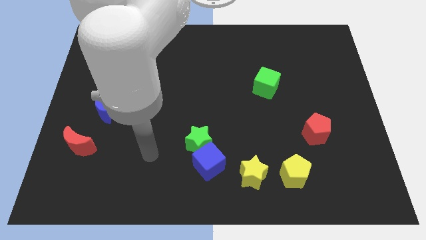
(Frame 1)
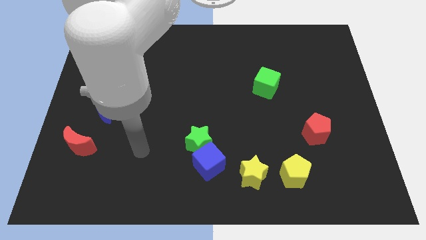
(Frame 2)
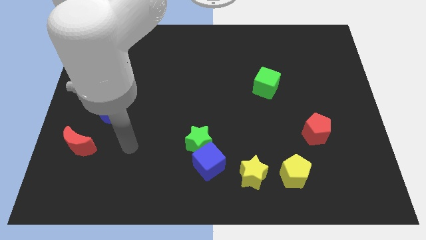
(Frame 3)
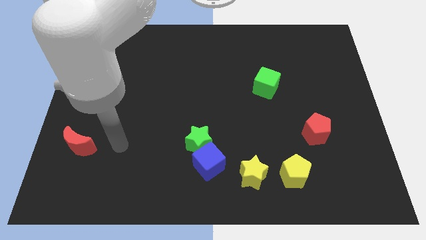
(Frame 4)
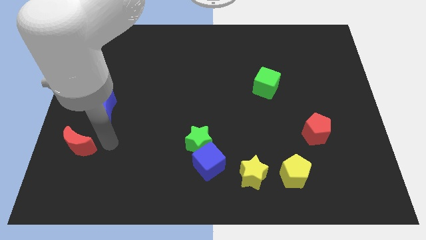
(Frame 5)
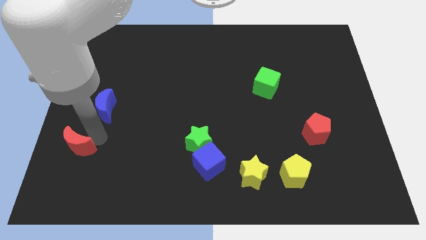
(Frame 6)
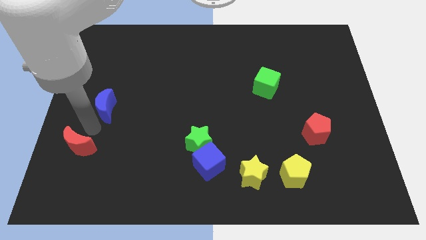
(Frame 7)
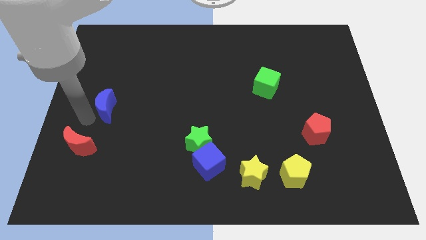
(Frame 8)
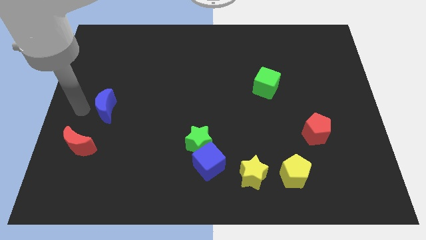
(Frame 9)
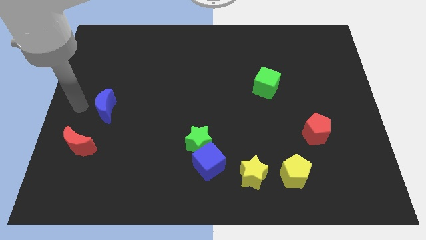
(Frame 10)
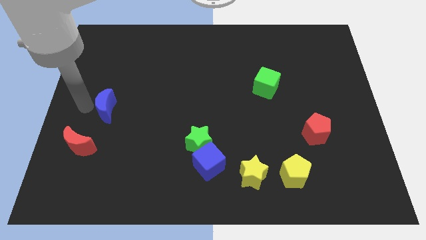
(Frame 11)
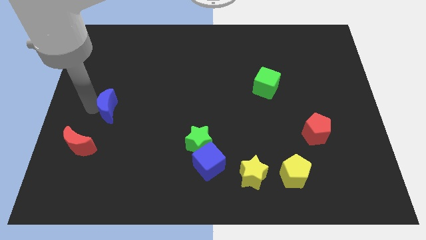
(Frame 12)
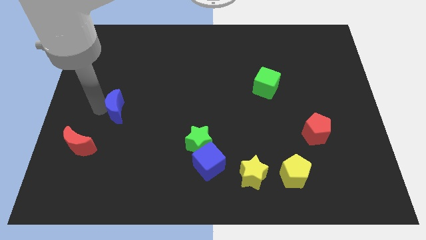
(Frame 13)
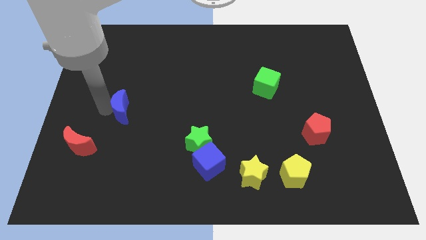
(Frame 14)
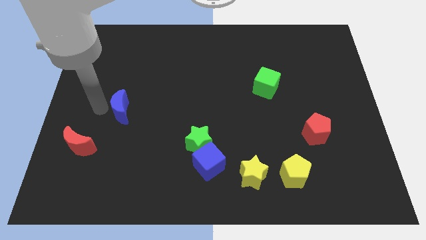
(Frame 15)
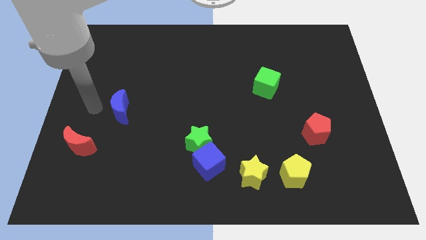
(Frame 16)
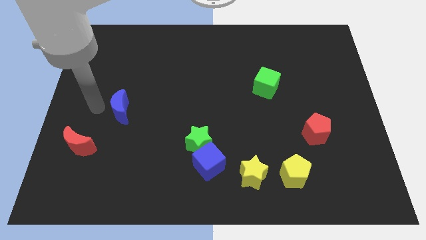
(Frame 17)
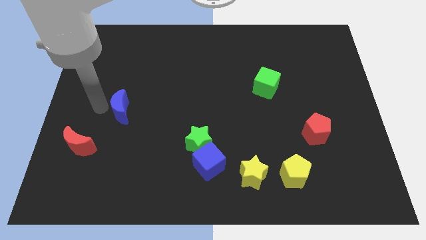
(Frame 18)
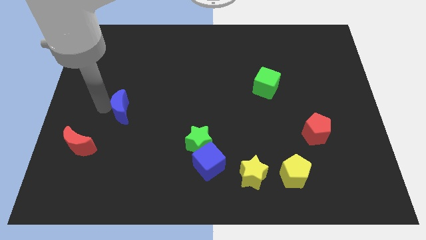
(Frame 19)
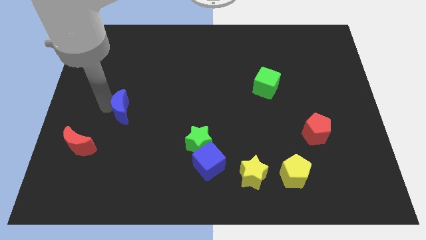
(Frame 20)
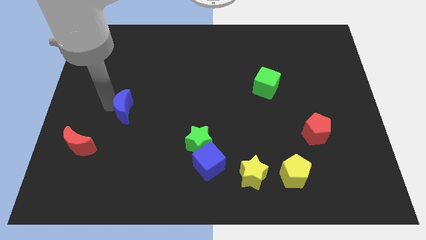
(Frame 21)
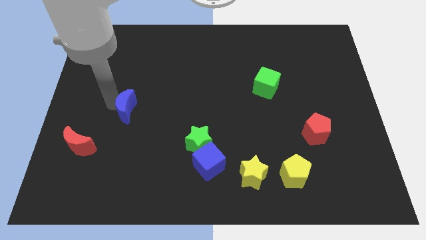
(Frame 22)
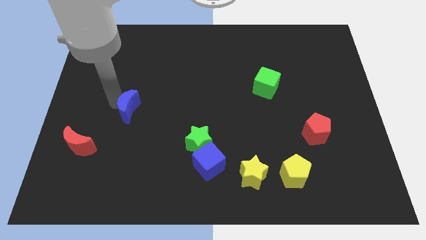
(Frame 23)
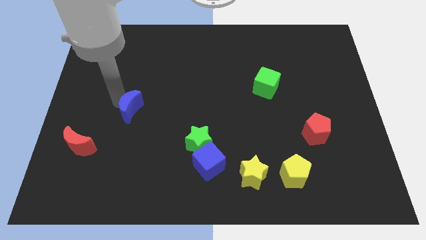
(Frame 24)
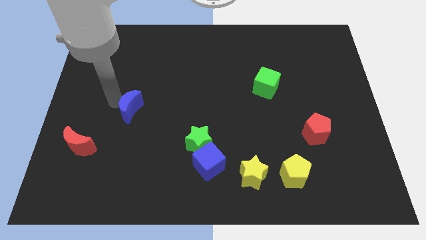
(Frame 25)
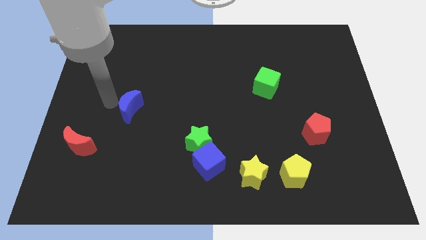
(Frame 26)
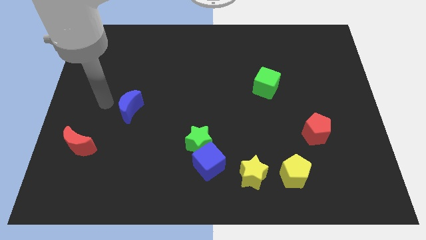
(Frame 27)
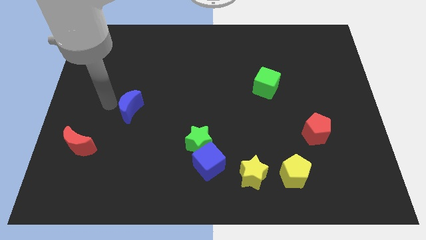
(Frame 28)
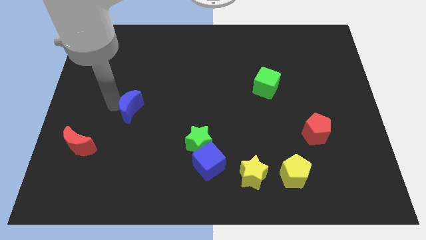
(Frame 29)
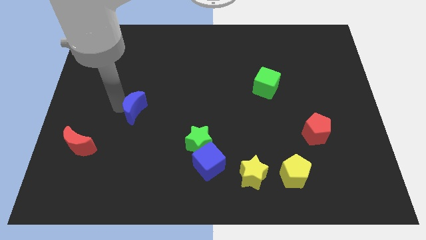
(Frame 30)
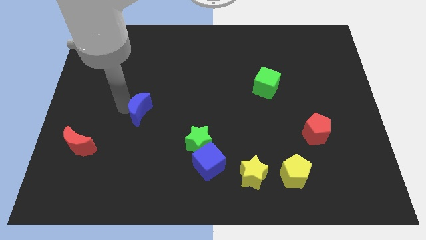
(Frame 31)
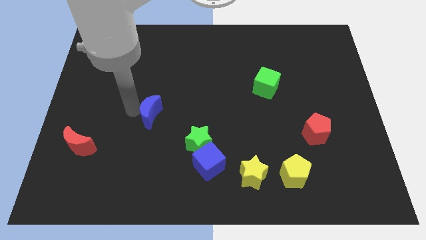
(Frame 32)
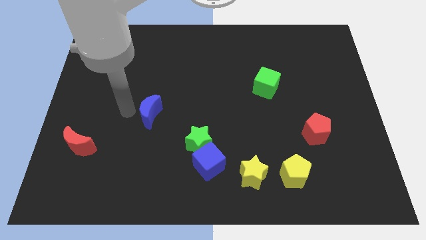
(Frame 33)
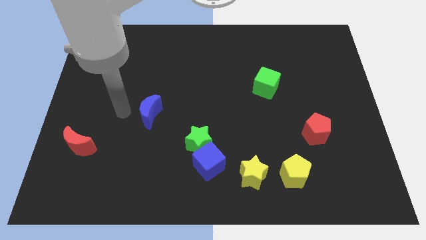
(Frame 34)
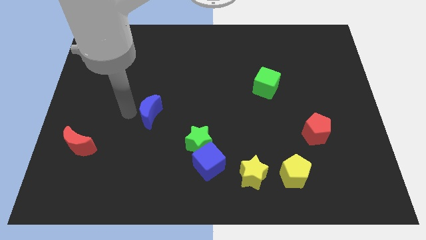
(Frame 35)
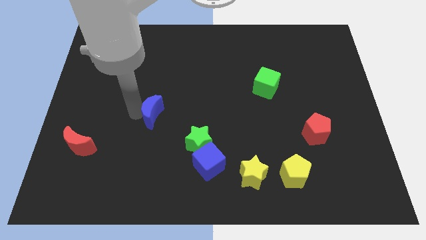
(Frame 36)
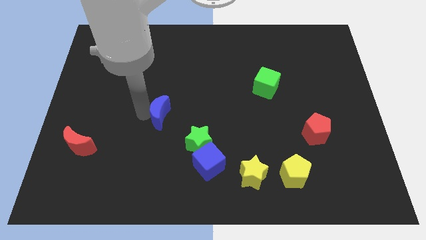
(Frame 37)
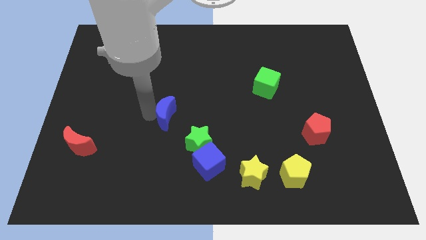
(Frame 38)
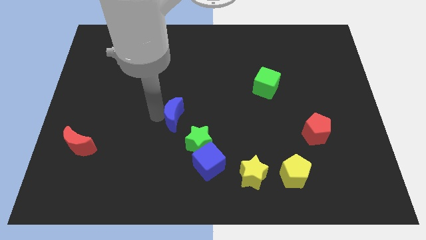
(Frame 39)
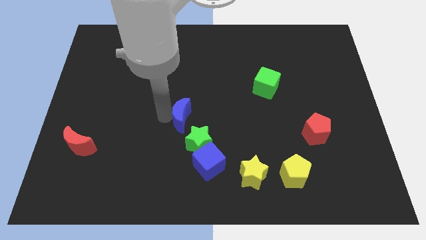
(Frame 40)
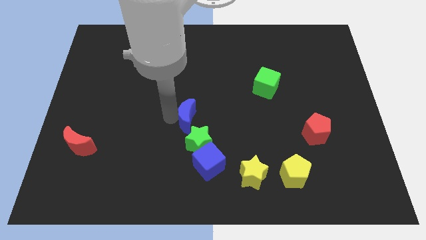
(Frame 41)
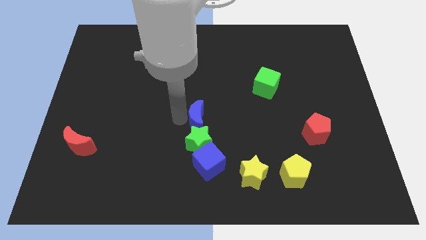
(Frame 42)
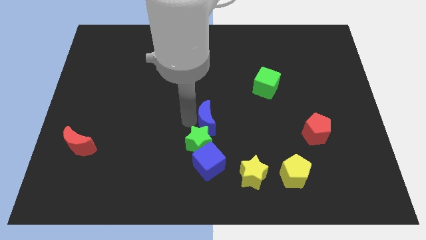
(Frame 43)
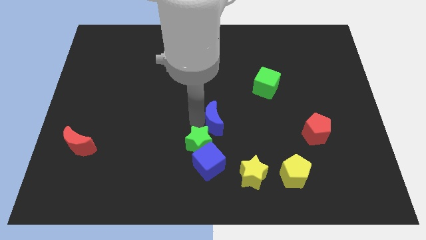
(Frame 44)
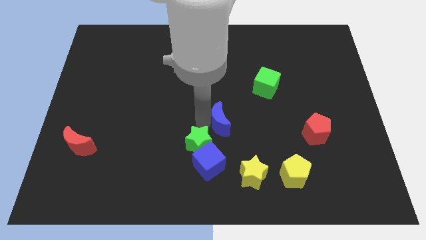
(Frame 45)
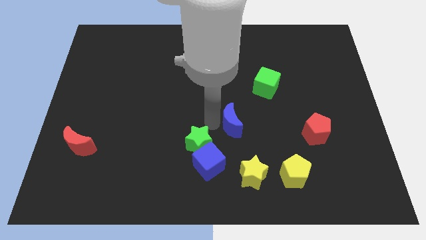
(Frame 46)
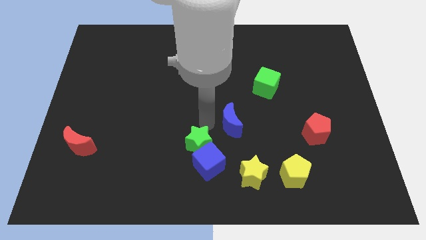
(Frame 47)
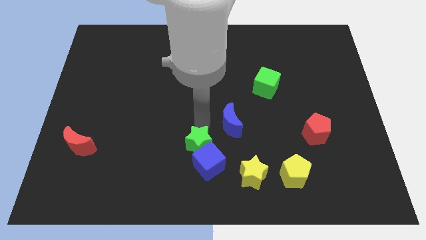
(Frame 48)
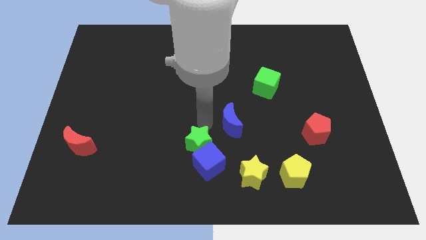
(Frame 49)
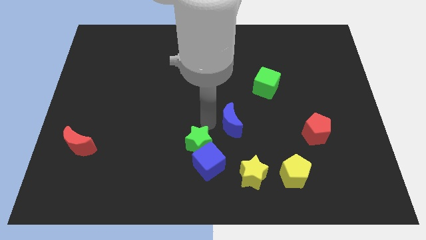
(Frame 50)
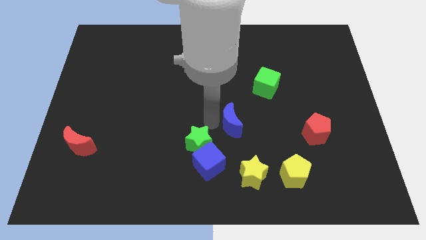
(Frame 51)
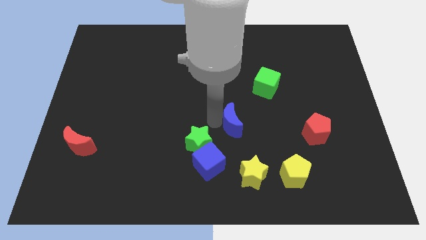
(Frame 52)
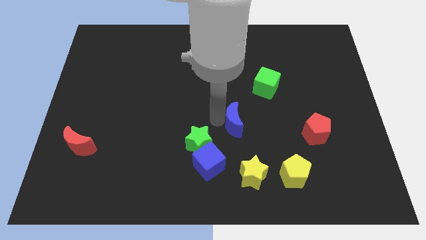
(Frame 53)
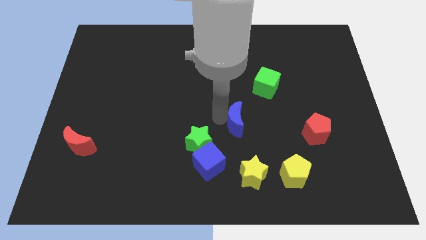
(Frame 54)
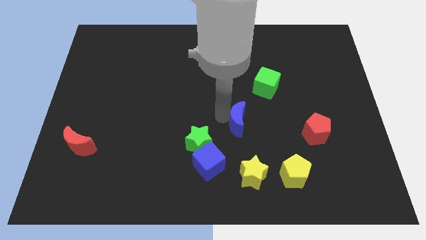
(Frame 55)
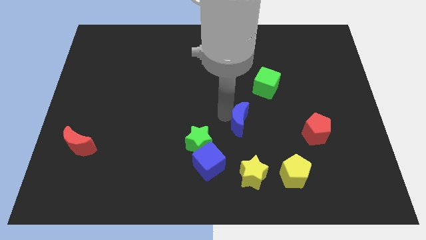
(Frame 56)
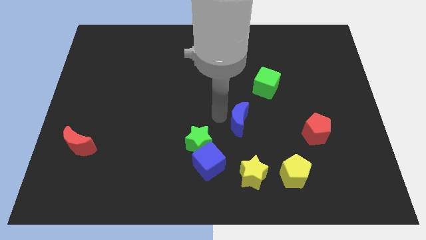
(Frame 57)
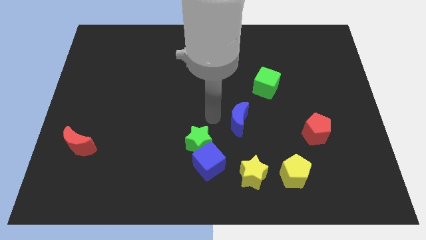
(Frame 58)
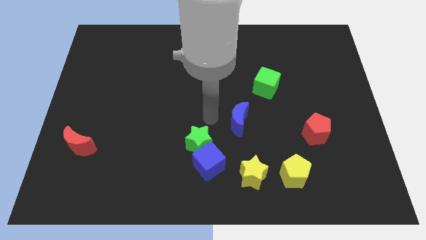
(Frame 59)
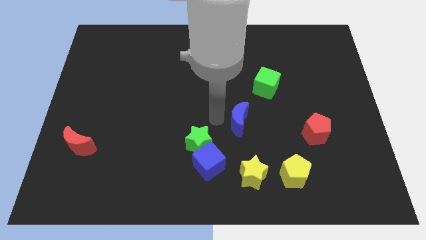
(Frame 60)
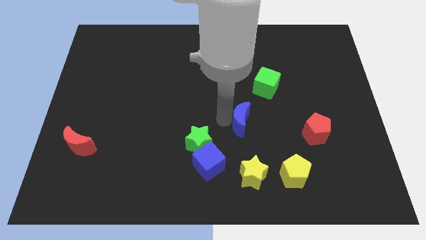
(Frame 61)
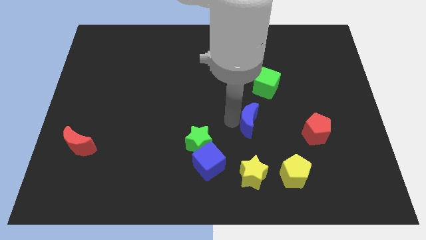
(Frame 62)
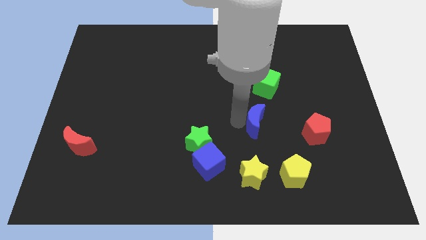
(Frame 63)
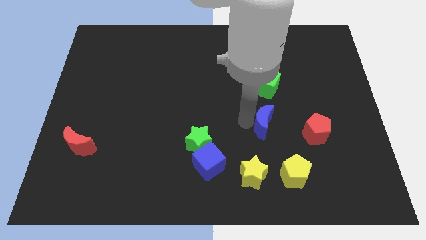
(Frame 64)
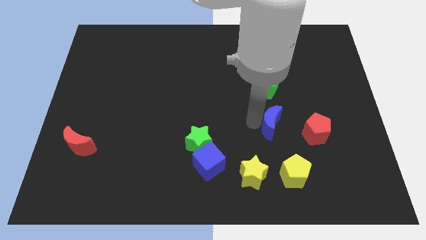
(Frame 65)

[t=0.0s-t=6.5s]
slide the blue moon to the top of the yellow pentagon
